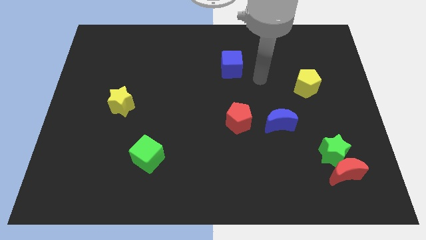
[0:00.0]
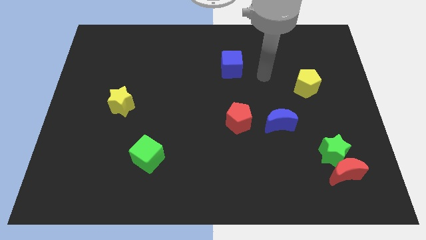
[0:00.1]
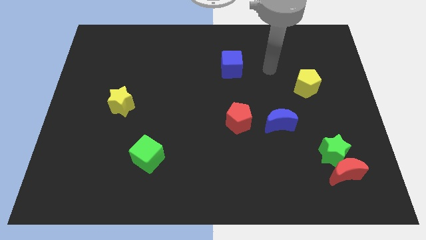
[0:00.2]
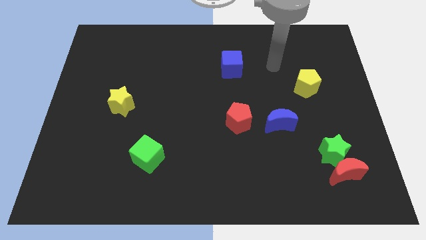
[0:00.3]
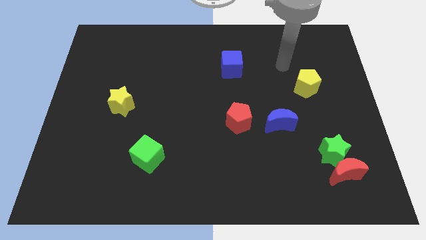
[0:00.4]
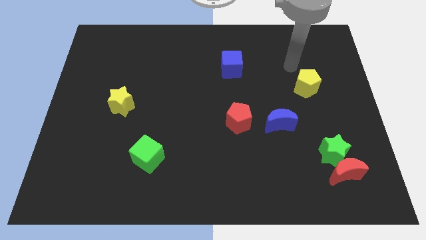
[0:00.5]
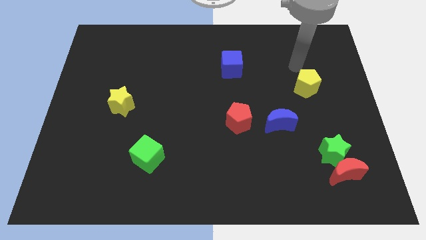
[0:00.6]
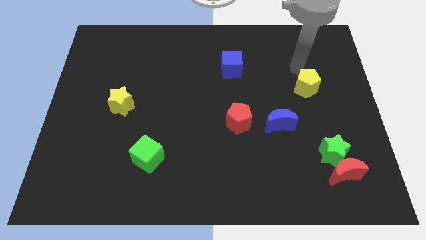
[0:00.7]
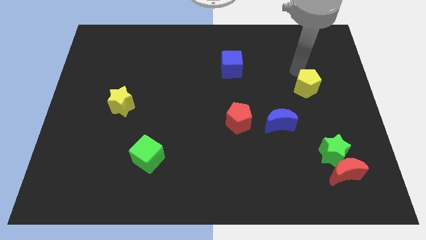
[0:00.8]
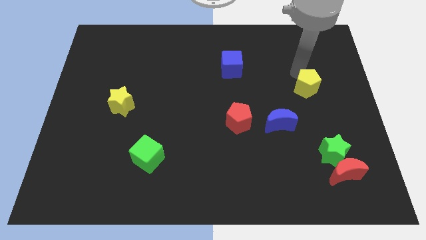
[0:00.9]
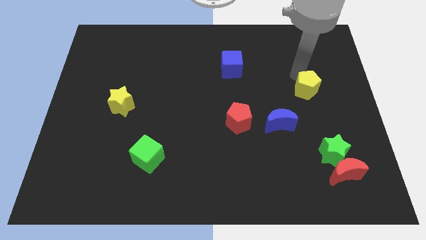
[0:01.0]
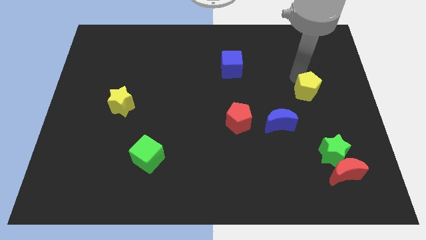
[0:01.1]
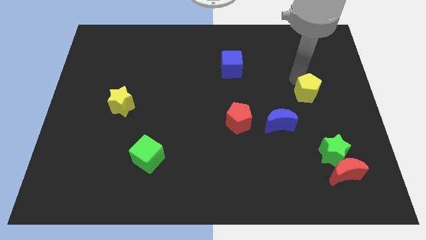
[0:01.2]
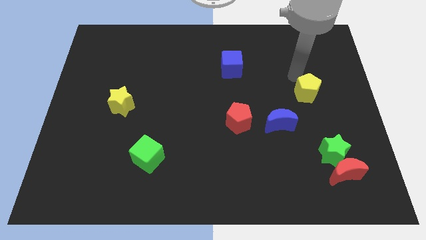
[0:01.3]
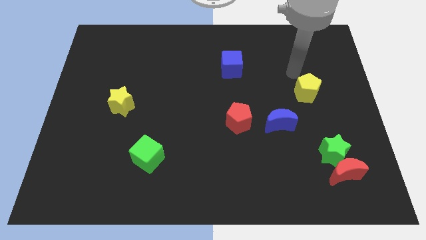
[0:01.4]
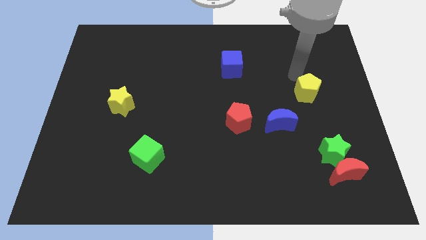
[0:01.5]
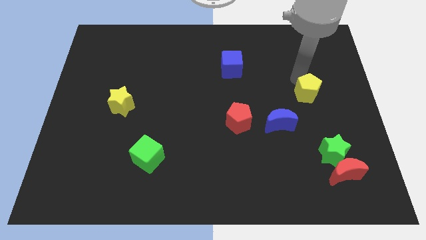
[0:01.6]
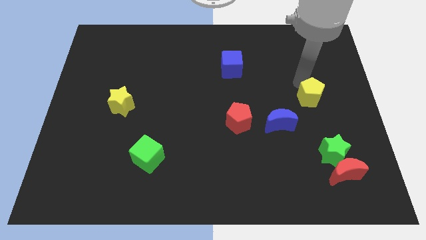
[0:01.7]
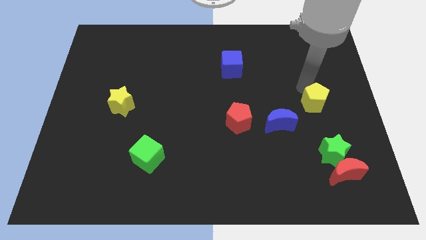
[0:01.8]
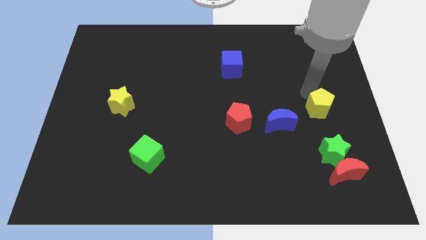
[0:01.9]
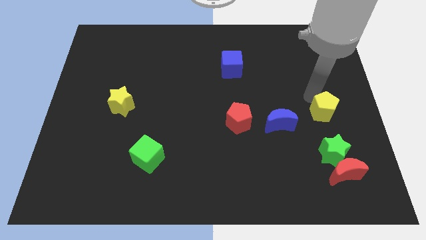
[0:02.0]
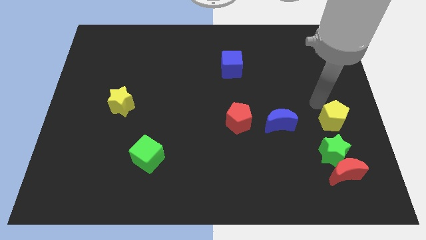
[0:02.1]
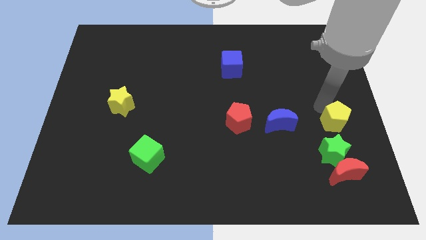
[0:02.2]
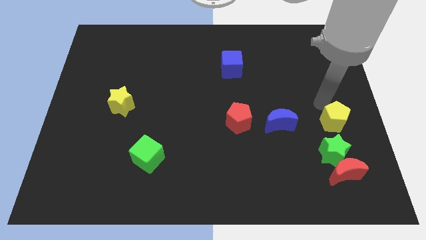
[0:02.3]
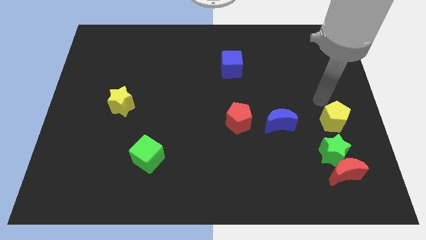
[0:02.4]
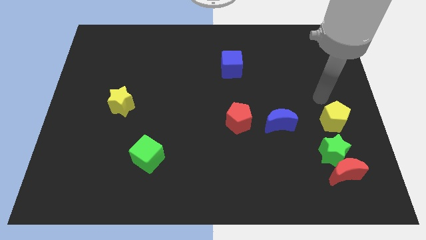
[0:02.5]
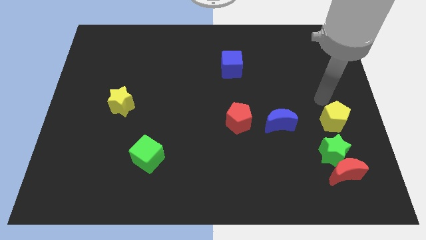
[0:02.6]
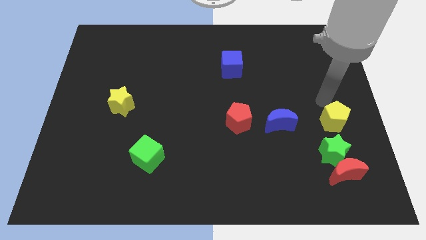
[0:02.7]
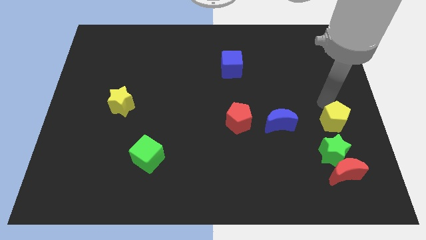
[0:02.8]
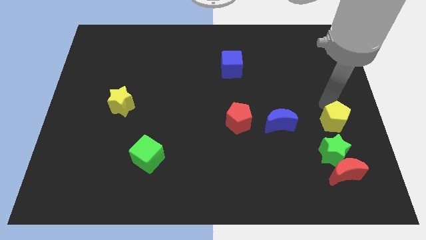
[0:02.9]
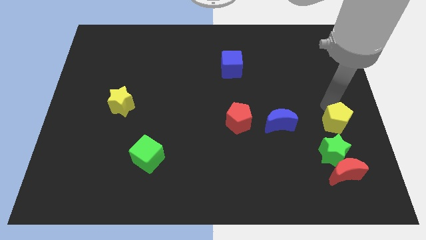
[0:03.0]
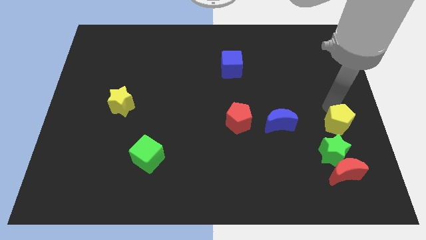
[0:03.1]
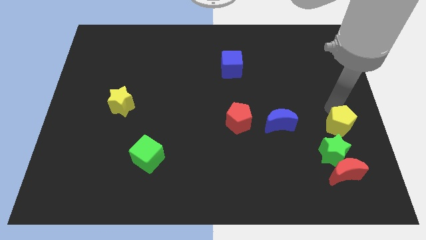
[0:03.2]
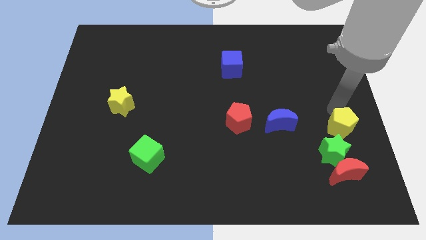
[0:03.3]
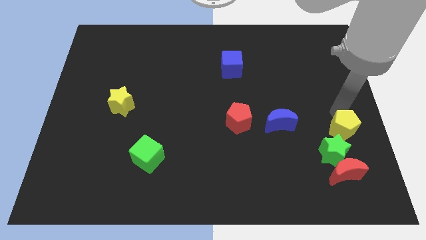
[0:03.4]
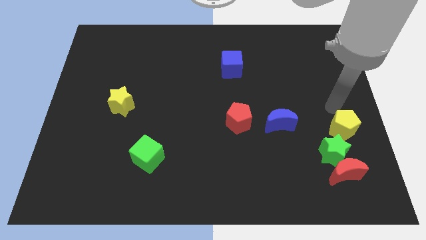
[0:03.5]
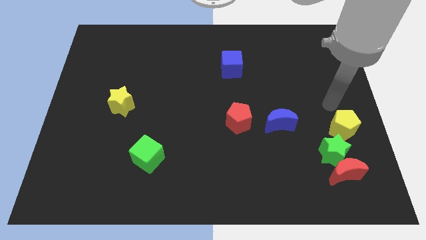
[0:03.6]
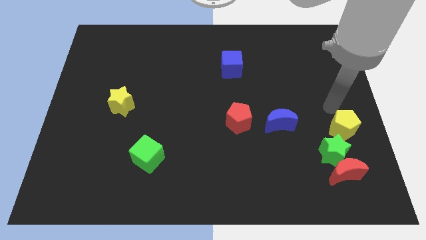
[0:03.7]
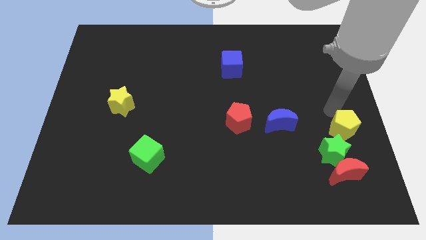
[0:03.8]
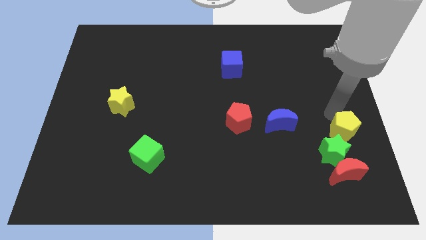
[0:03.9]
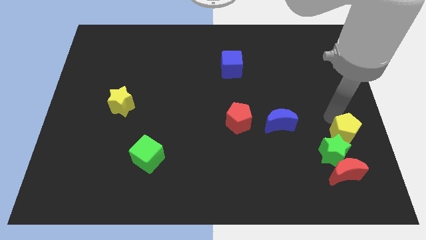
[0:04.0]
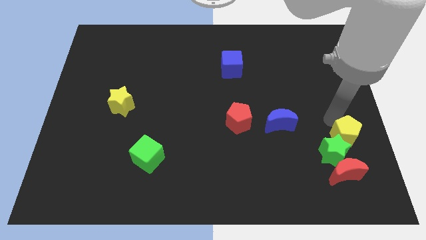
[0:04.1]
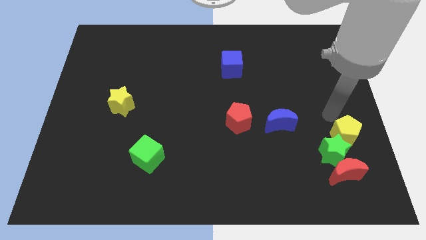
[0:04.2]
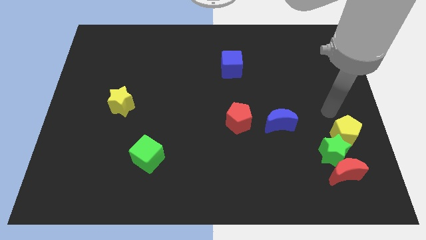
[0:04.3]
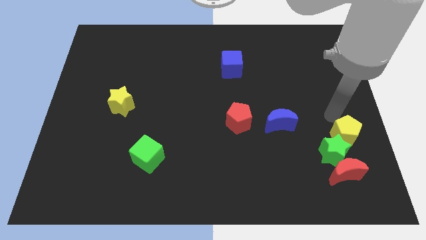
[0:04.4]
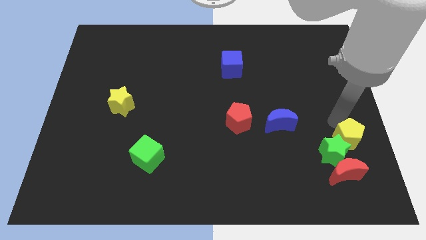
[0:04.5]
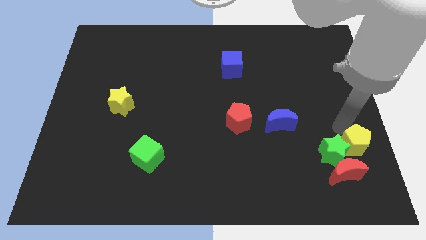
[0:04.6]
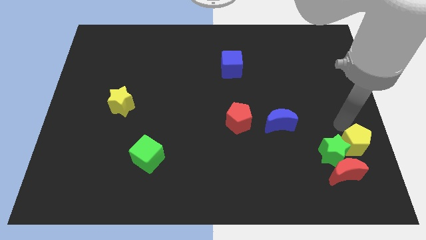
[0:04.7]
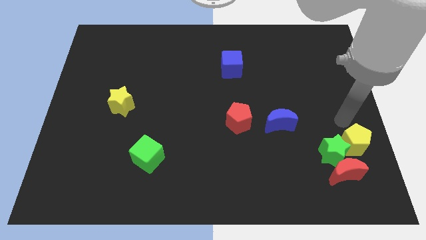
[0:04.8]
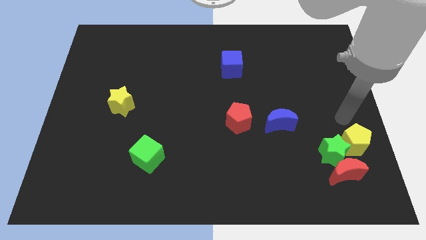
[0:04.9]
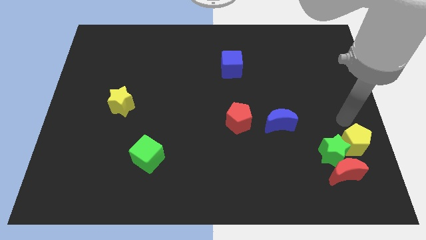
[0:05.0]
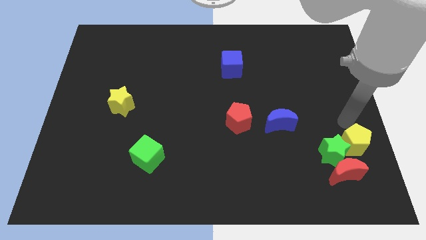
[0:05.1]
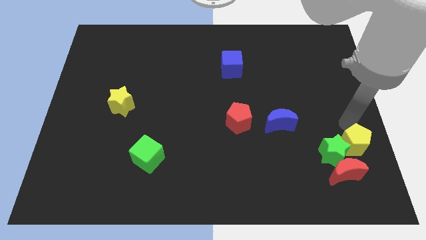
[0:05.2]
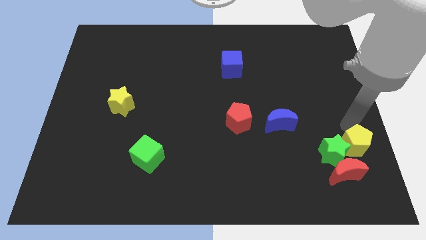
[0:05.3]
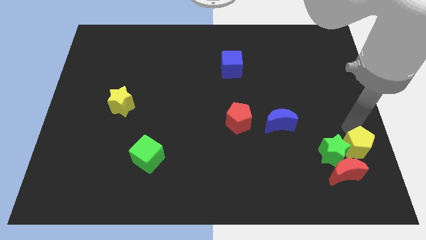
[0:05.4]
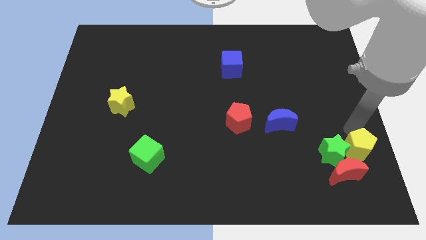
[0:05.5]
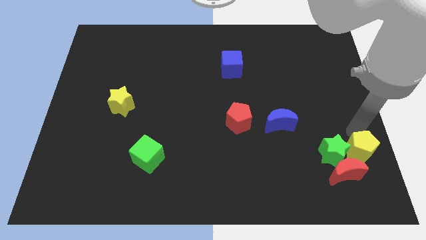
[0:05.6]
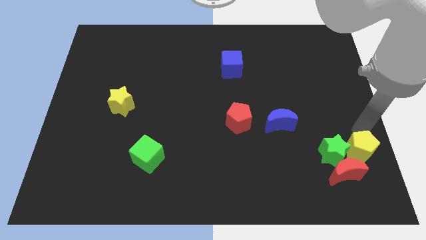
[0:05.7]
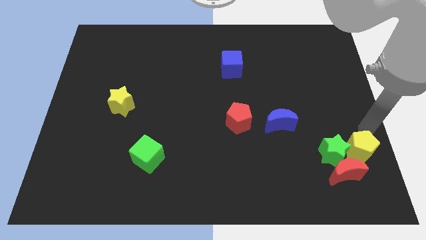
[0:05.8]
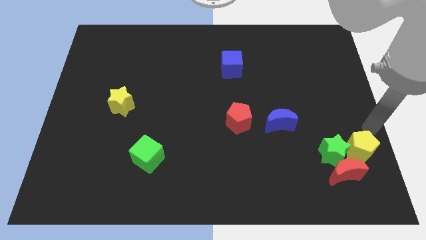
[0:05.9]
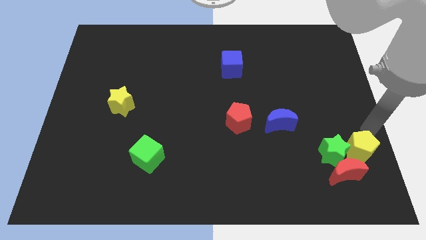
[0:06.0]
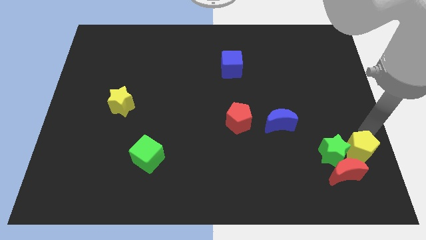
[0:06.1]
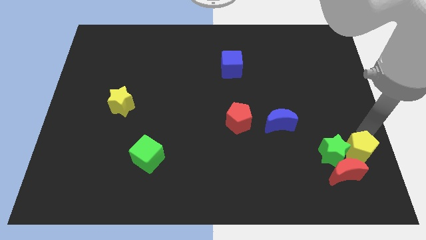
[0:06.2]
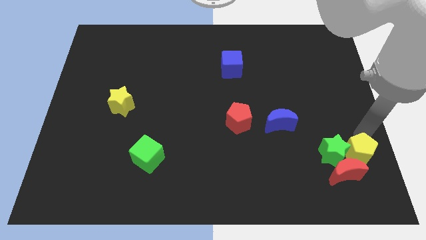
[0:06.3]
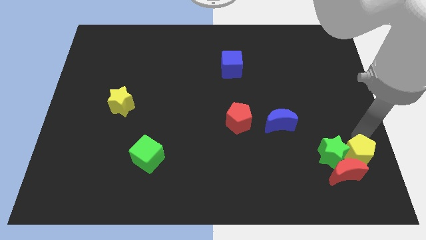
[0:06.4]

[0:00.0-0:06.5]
put the yellow pentagon towards the red moon
